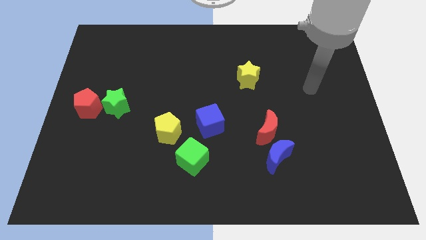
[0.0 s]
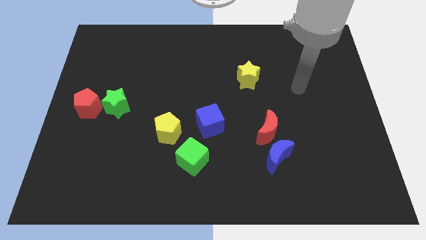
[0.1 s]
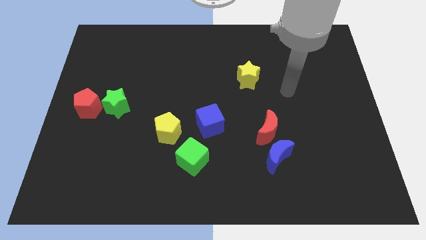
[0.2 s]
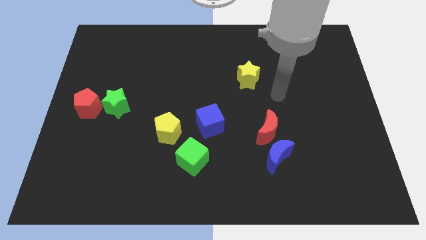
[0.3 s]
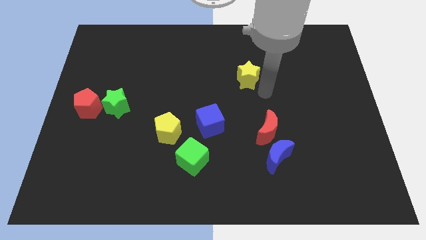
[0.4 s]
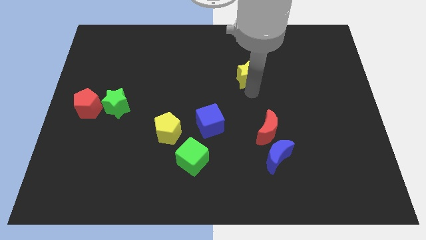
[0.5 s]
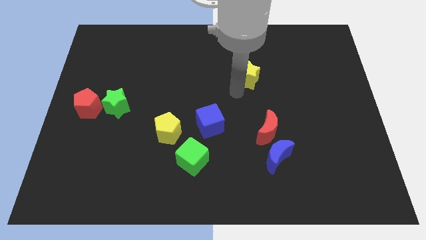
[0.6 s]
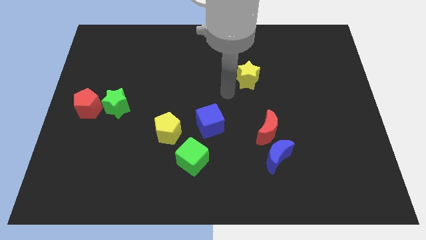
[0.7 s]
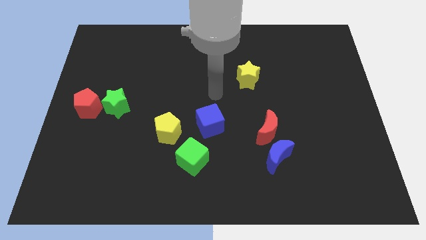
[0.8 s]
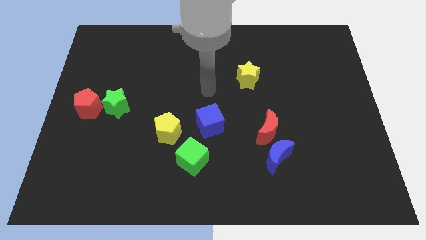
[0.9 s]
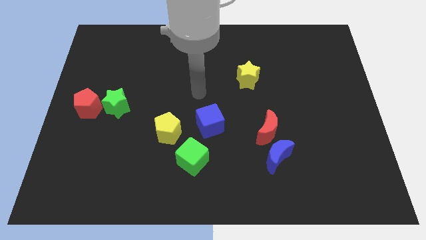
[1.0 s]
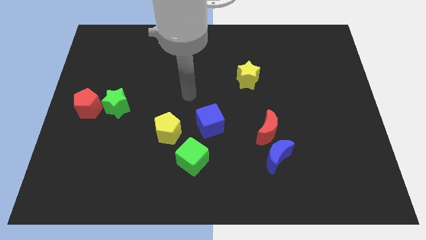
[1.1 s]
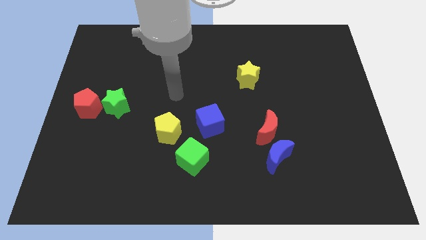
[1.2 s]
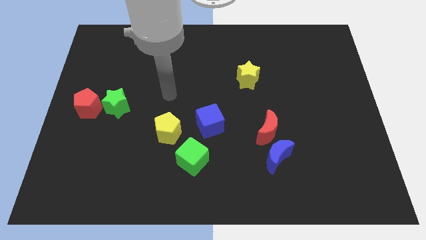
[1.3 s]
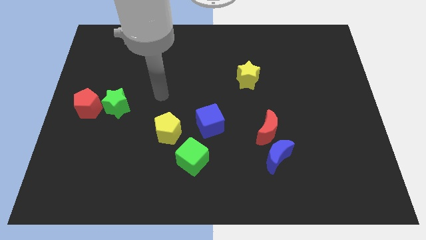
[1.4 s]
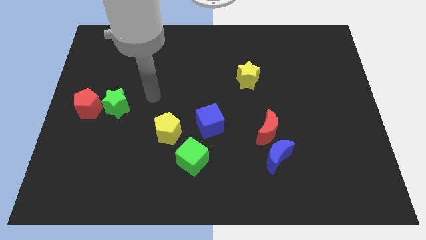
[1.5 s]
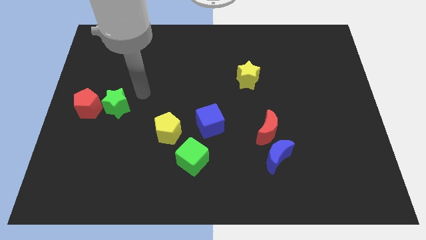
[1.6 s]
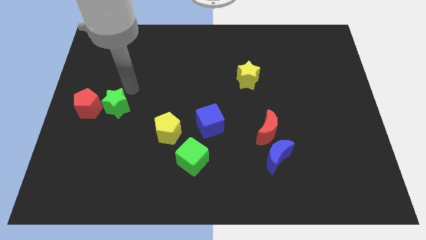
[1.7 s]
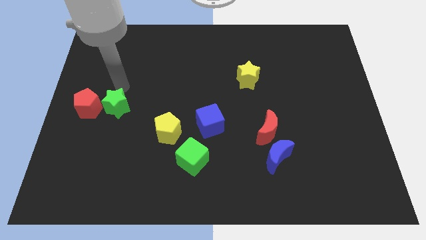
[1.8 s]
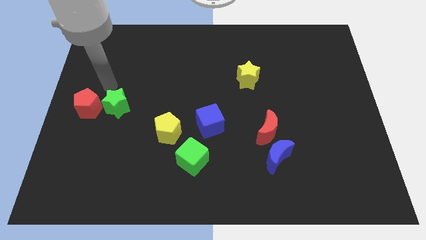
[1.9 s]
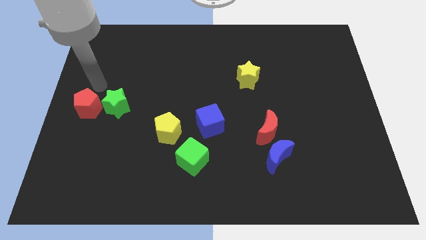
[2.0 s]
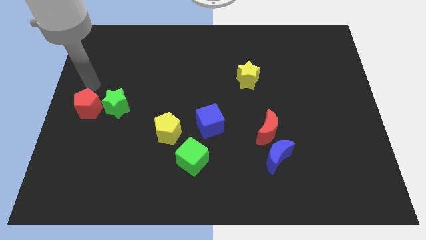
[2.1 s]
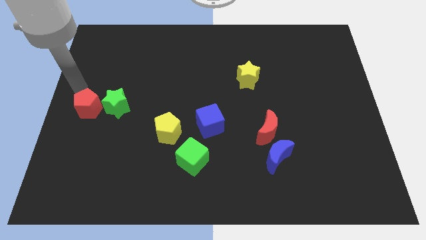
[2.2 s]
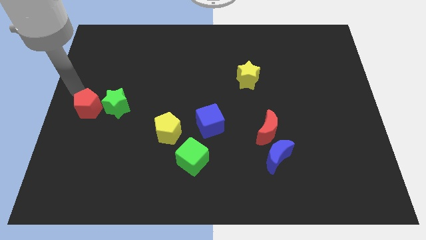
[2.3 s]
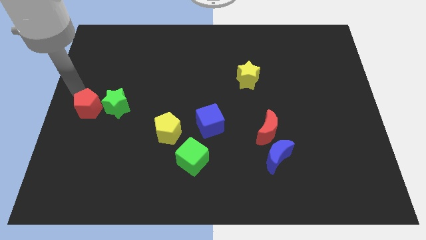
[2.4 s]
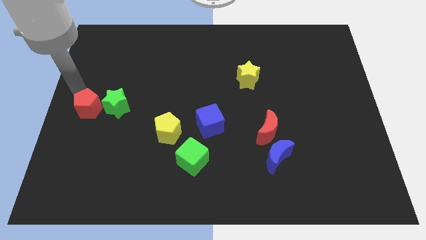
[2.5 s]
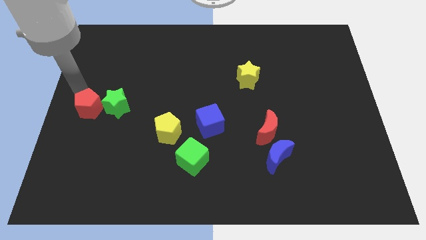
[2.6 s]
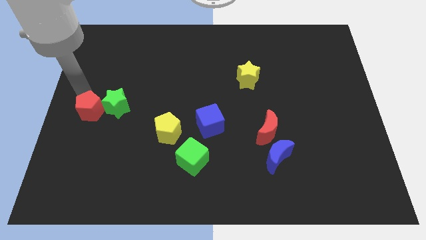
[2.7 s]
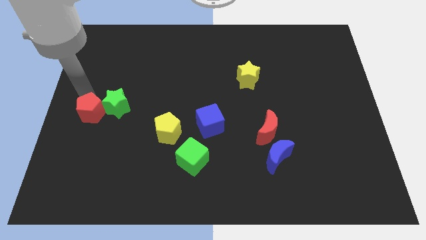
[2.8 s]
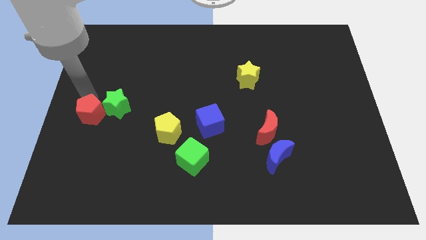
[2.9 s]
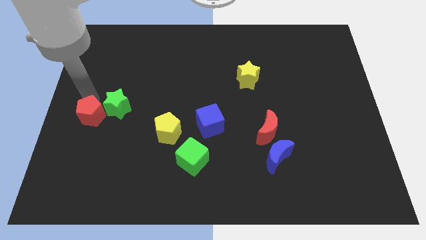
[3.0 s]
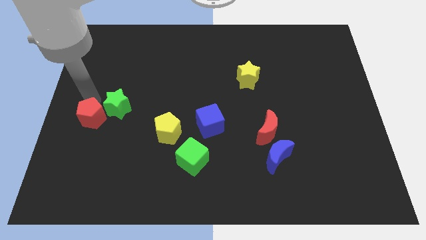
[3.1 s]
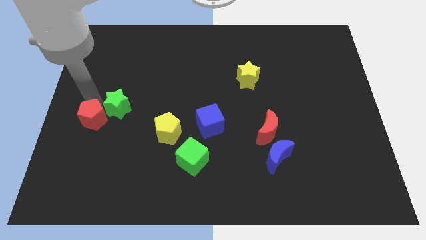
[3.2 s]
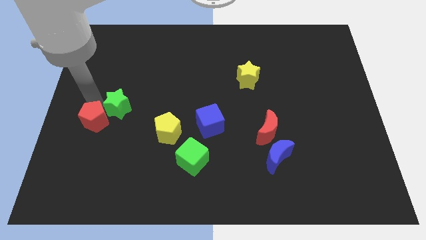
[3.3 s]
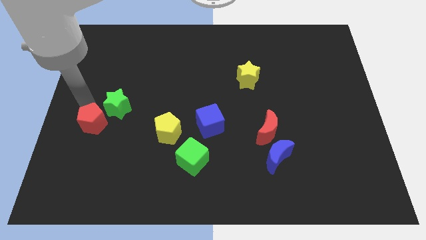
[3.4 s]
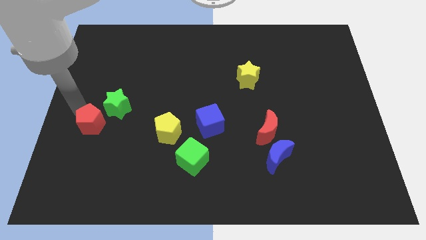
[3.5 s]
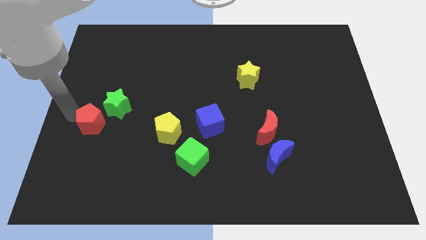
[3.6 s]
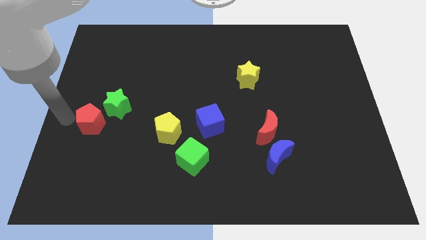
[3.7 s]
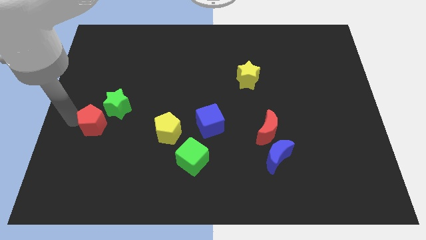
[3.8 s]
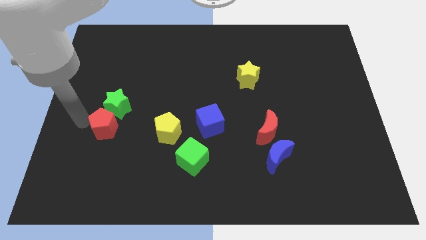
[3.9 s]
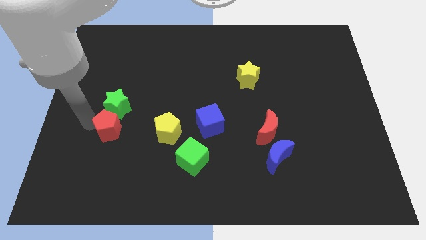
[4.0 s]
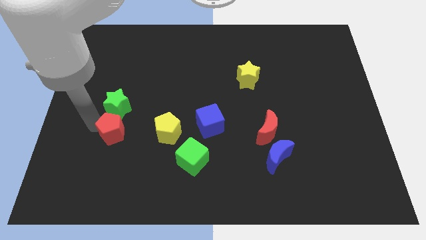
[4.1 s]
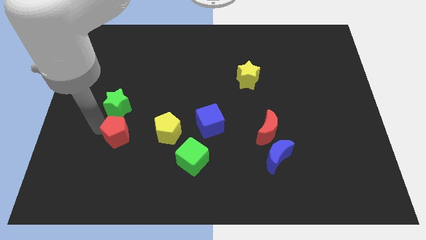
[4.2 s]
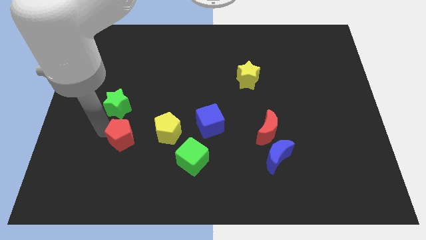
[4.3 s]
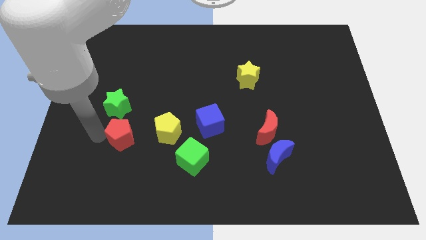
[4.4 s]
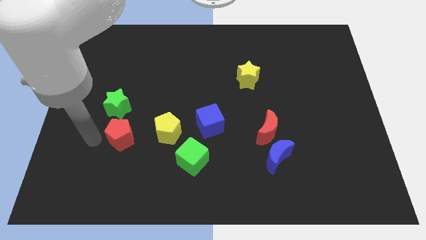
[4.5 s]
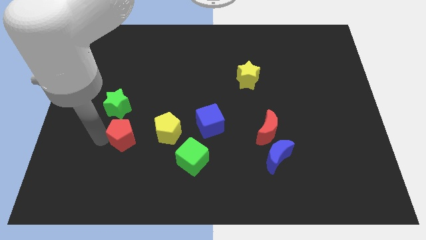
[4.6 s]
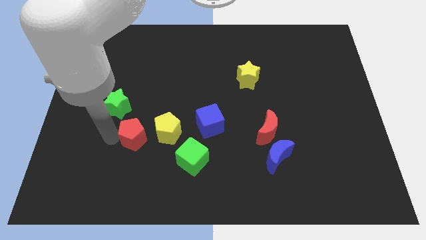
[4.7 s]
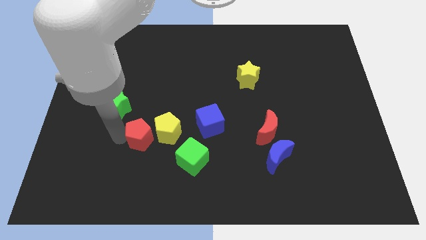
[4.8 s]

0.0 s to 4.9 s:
slide the red pentagon close to the yellow pentagon

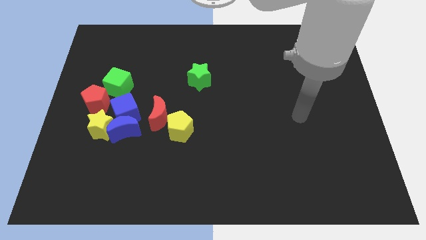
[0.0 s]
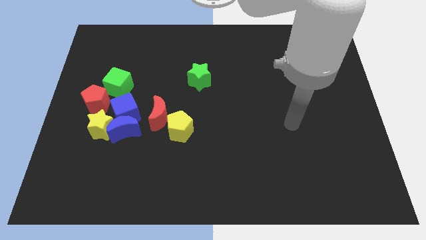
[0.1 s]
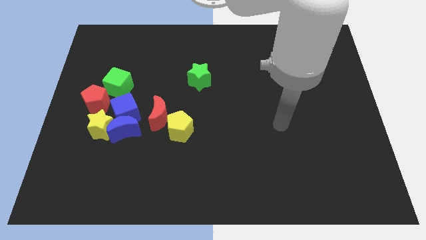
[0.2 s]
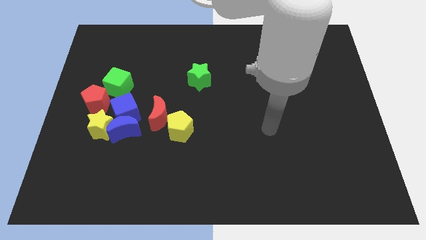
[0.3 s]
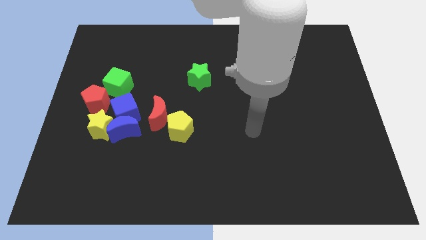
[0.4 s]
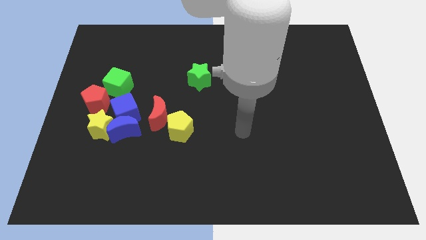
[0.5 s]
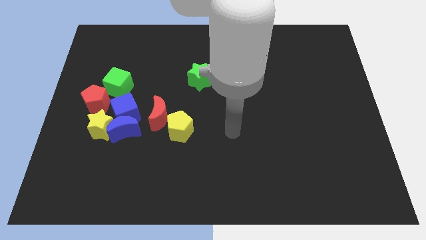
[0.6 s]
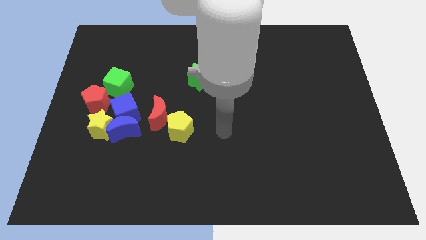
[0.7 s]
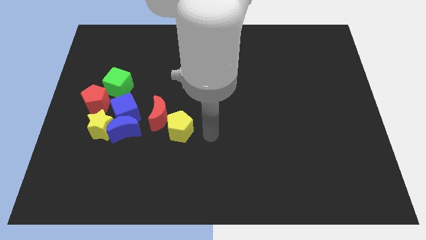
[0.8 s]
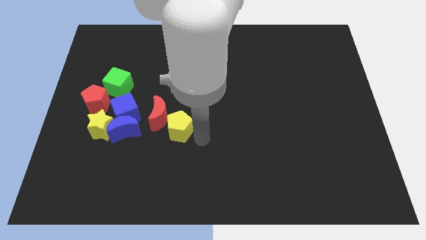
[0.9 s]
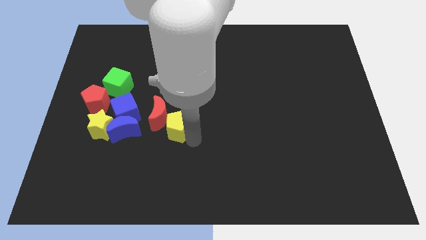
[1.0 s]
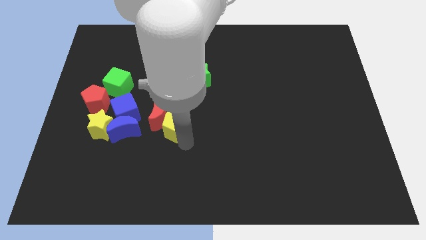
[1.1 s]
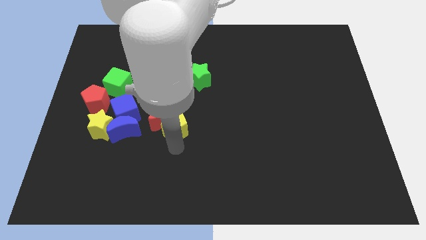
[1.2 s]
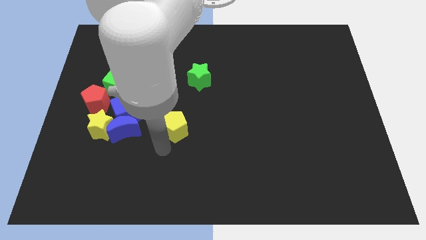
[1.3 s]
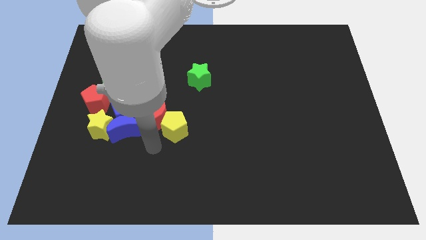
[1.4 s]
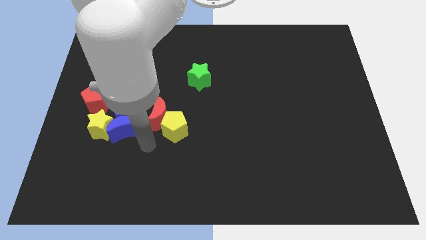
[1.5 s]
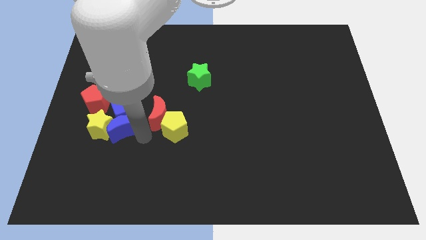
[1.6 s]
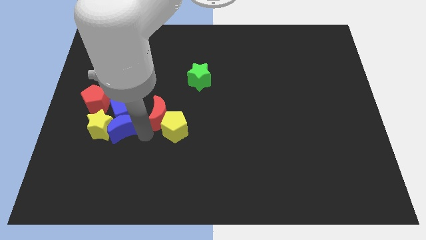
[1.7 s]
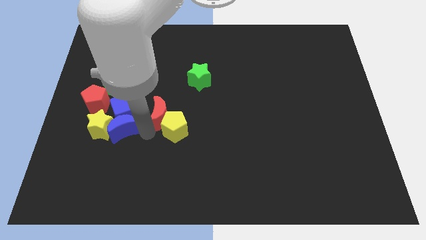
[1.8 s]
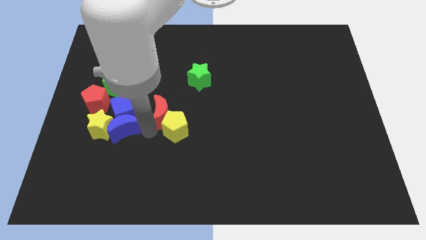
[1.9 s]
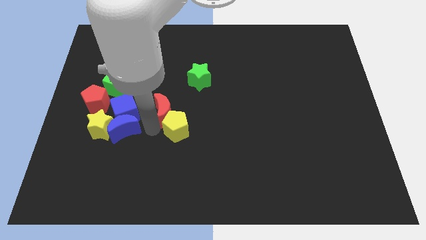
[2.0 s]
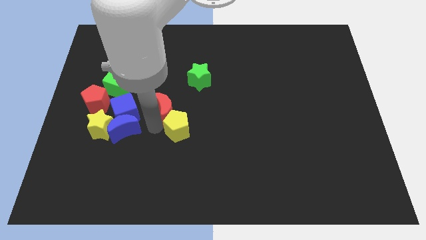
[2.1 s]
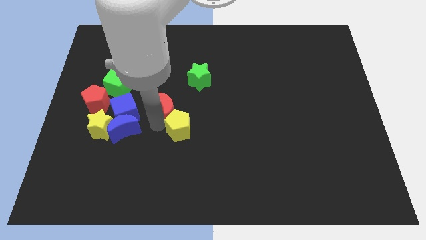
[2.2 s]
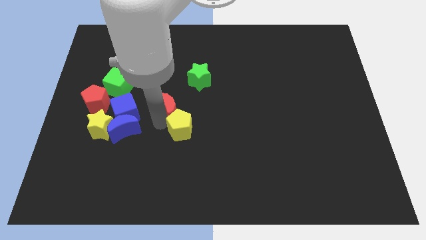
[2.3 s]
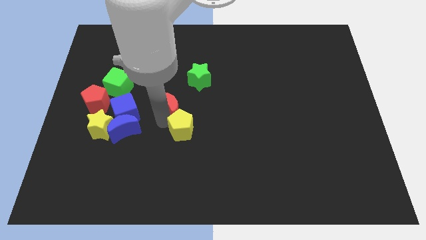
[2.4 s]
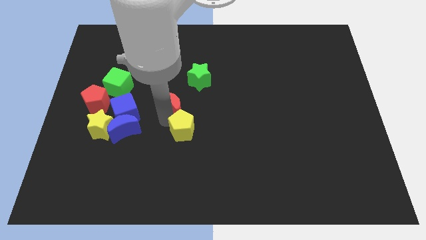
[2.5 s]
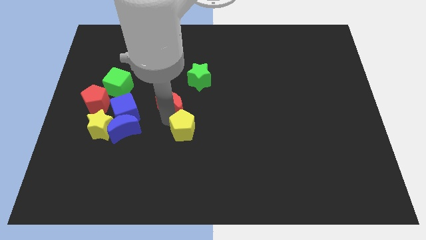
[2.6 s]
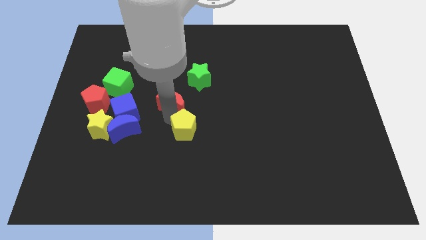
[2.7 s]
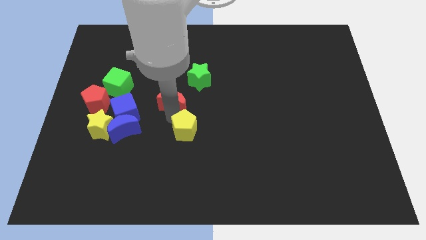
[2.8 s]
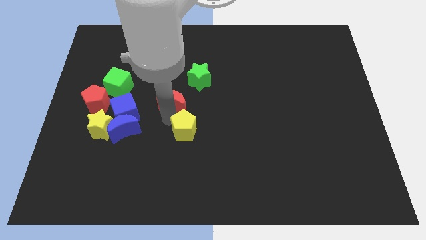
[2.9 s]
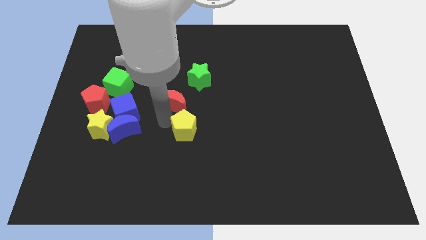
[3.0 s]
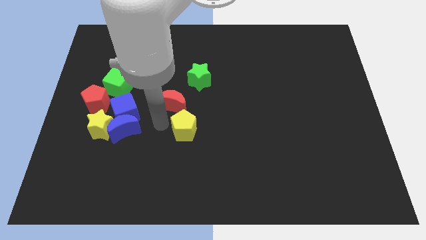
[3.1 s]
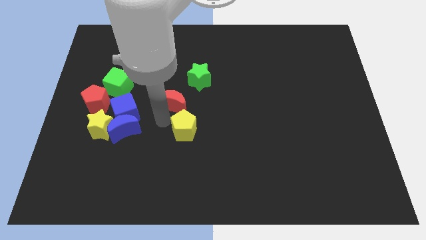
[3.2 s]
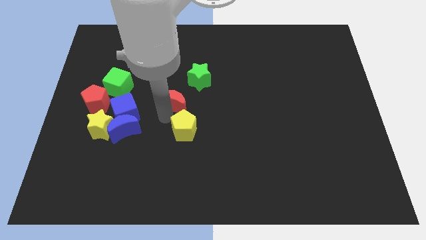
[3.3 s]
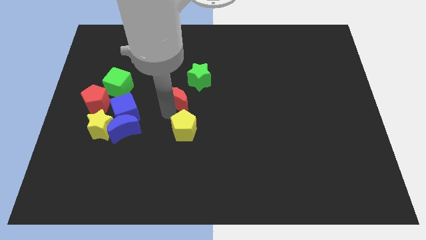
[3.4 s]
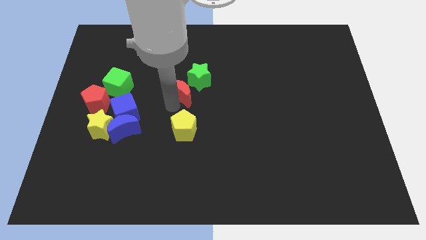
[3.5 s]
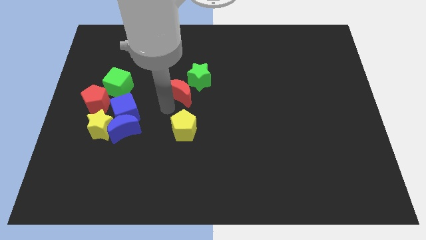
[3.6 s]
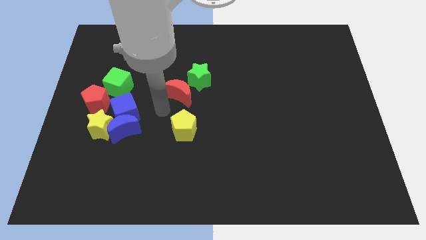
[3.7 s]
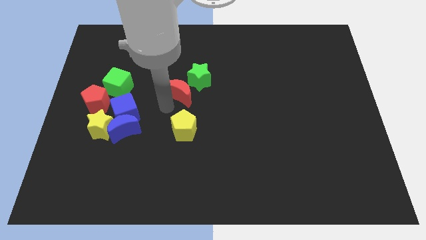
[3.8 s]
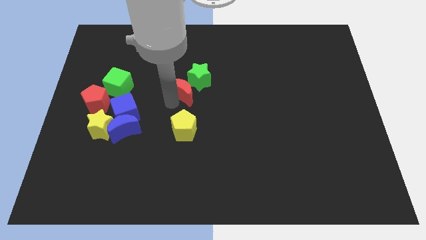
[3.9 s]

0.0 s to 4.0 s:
move the red moon next to the green star
